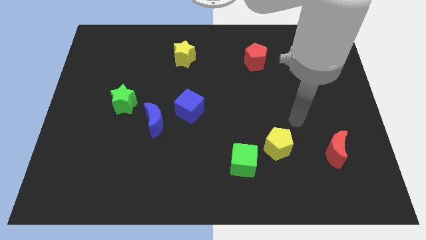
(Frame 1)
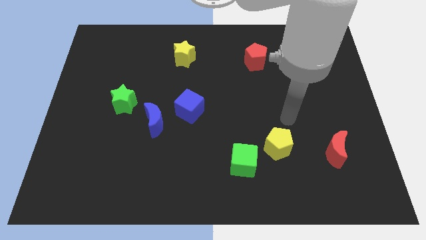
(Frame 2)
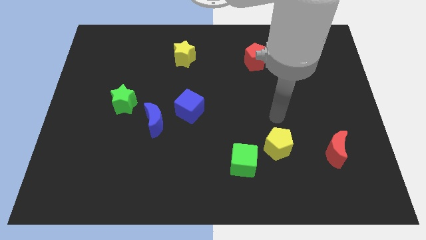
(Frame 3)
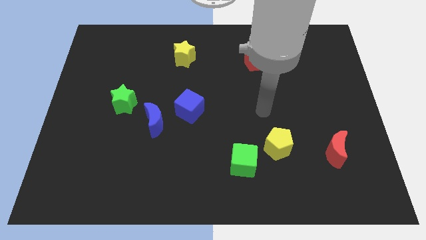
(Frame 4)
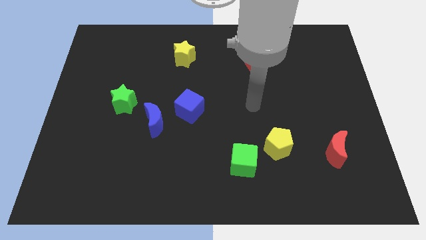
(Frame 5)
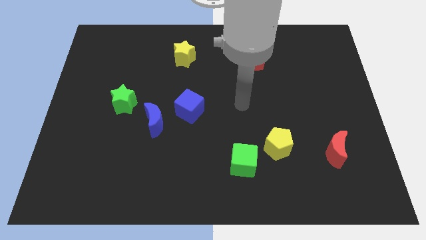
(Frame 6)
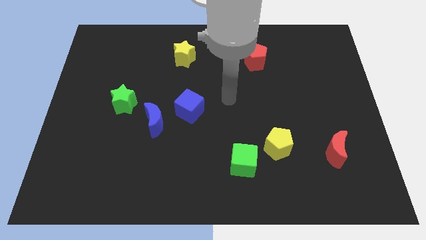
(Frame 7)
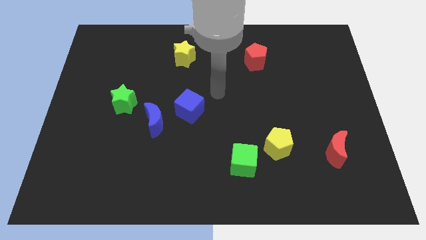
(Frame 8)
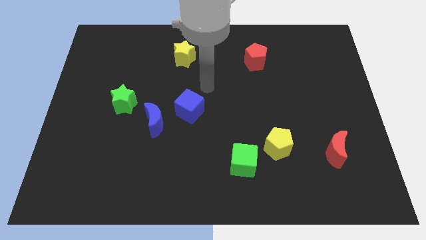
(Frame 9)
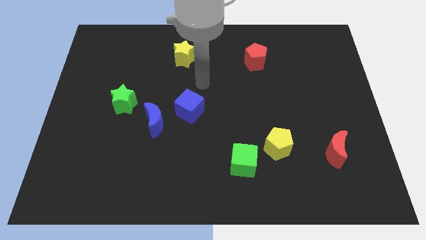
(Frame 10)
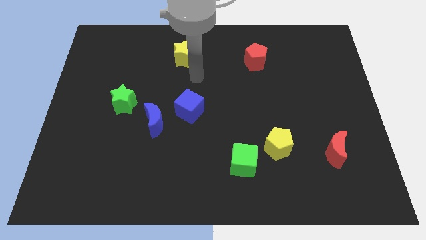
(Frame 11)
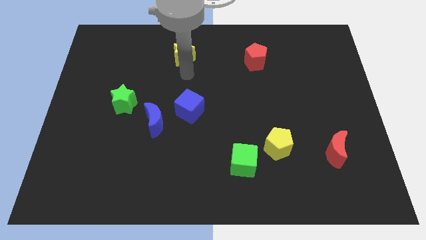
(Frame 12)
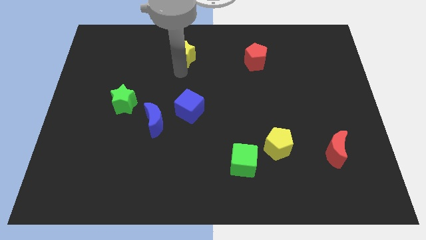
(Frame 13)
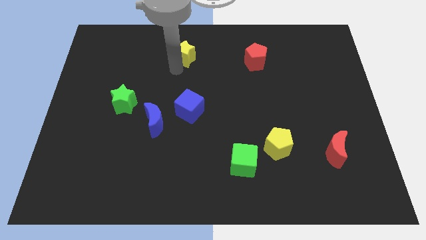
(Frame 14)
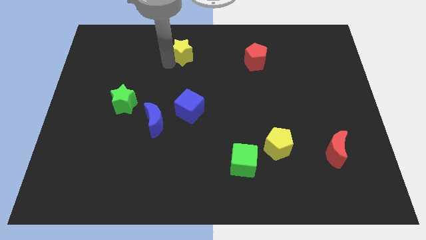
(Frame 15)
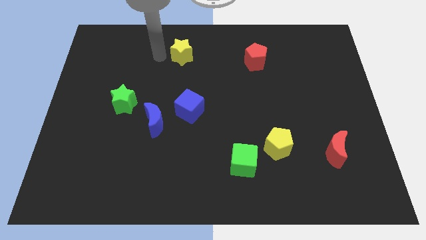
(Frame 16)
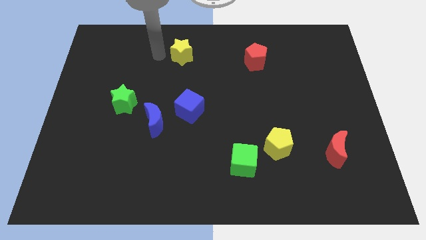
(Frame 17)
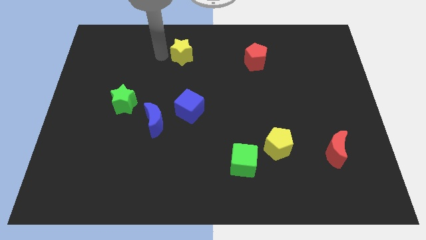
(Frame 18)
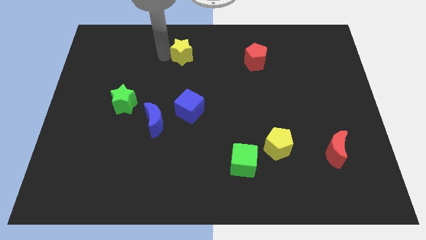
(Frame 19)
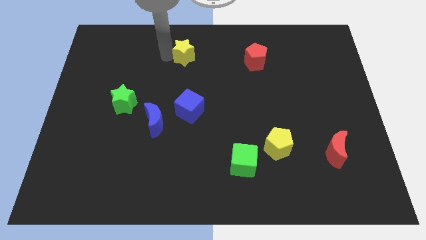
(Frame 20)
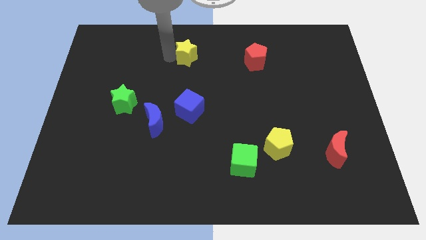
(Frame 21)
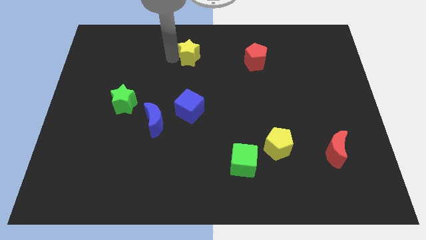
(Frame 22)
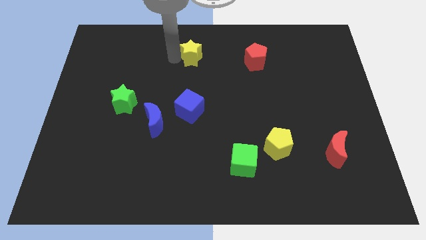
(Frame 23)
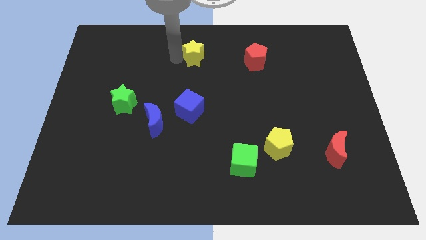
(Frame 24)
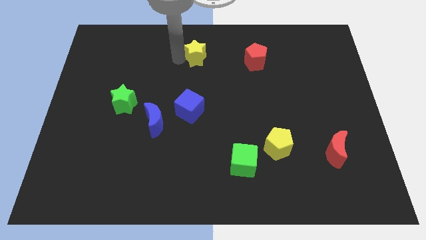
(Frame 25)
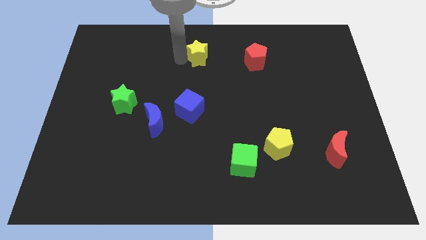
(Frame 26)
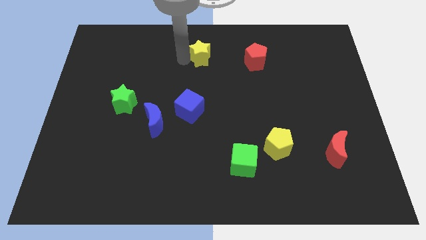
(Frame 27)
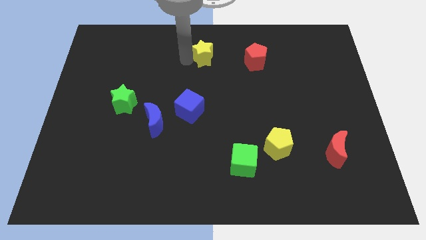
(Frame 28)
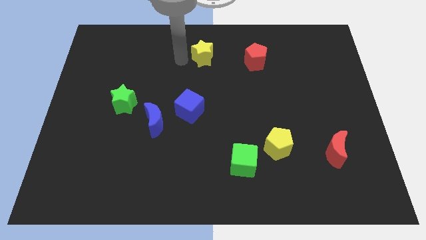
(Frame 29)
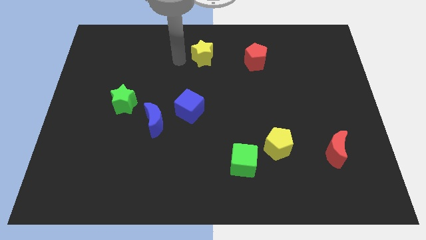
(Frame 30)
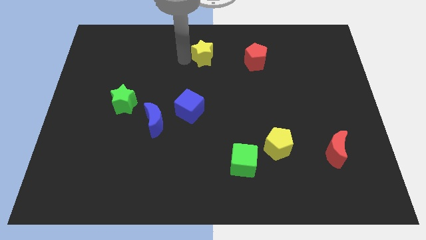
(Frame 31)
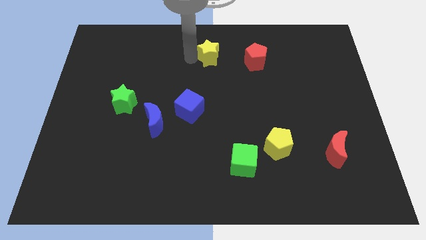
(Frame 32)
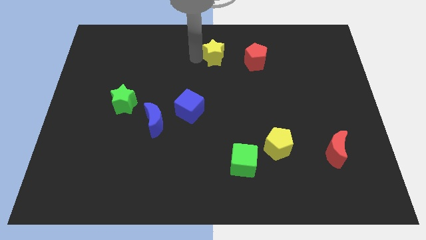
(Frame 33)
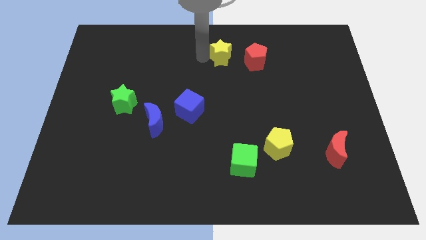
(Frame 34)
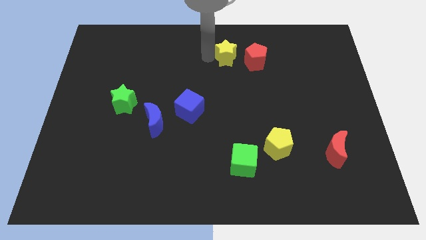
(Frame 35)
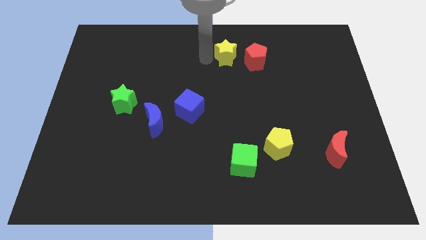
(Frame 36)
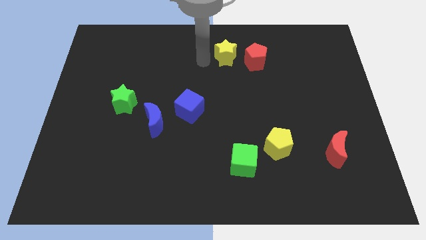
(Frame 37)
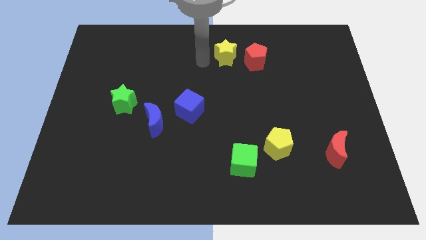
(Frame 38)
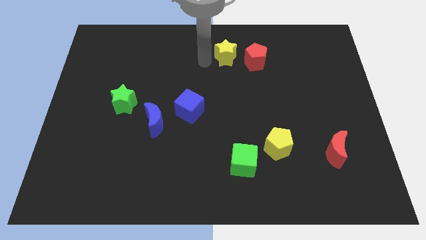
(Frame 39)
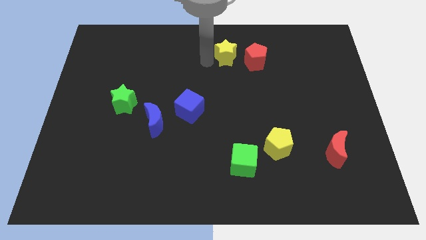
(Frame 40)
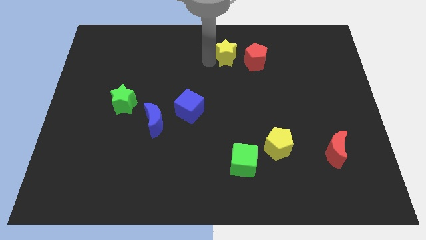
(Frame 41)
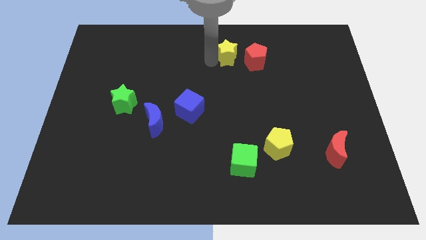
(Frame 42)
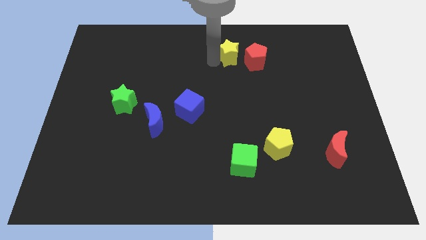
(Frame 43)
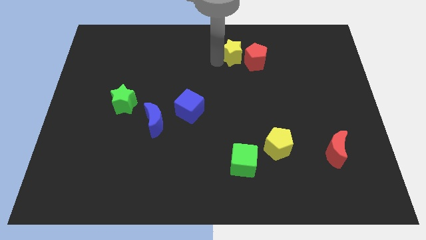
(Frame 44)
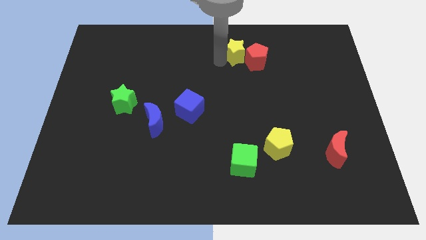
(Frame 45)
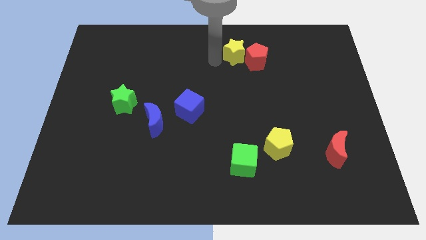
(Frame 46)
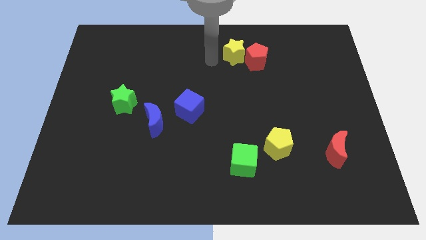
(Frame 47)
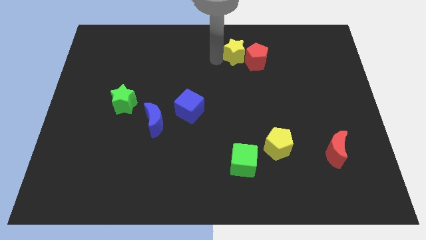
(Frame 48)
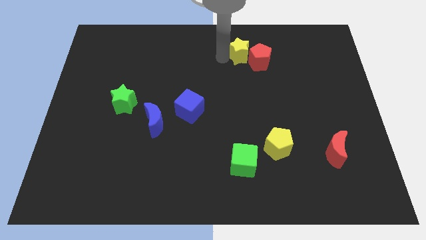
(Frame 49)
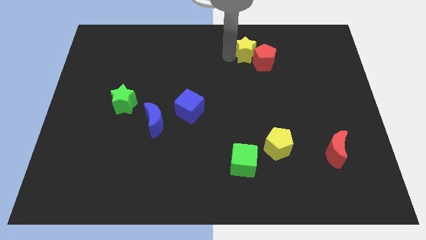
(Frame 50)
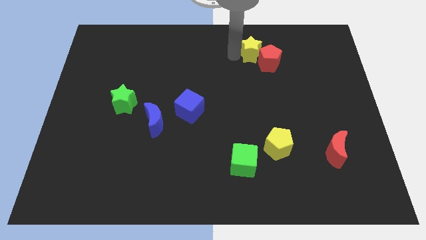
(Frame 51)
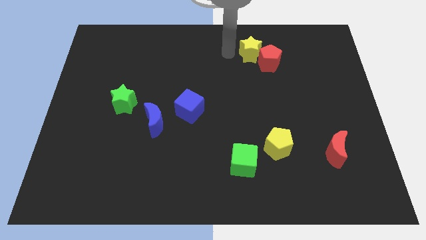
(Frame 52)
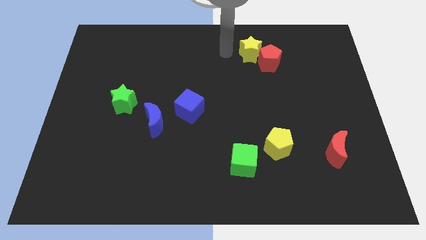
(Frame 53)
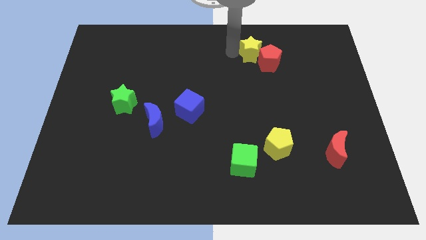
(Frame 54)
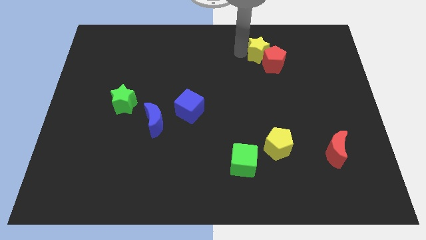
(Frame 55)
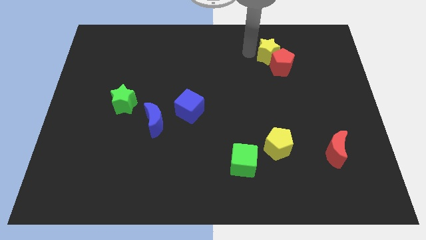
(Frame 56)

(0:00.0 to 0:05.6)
push the yellow star to the right

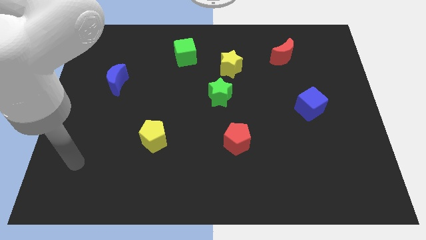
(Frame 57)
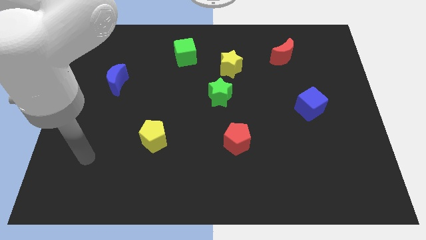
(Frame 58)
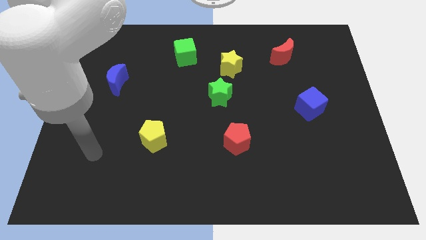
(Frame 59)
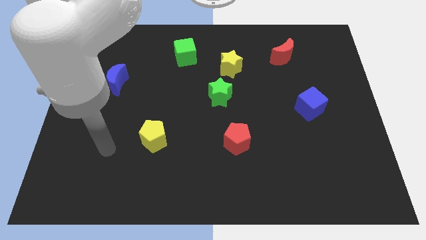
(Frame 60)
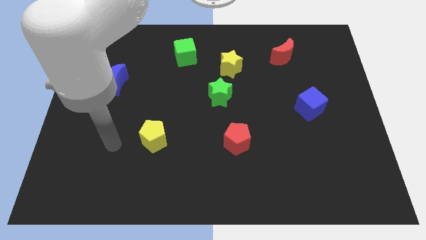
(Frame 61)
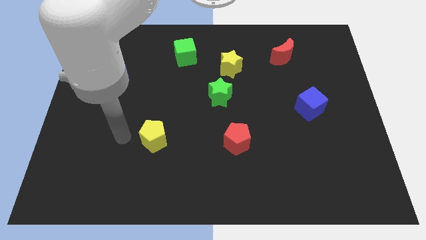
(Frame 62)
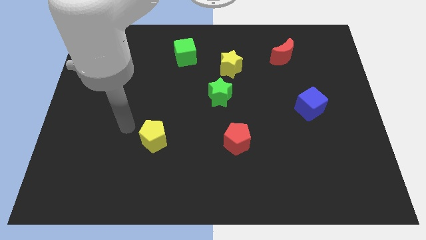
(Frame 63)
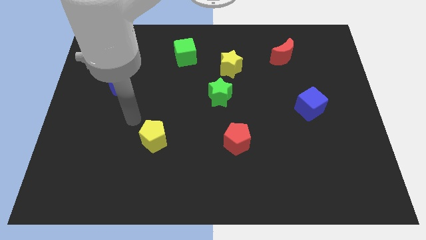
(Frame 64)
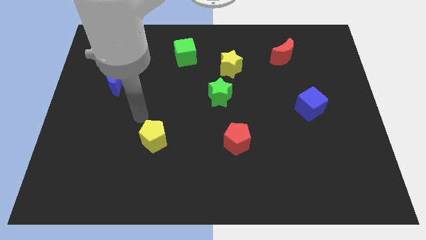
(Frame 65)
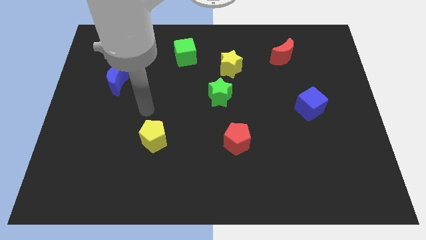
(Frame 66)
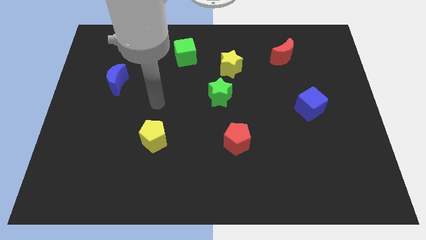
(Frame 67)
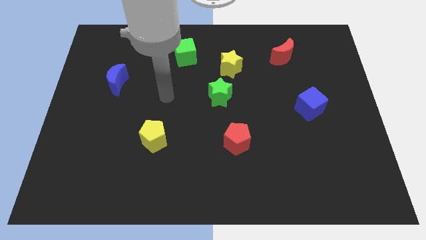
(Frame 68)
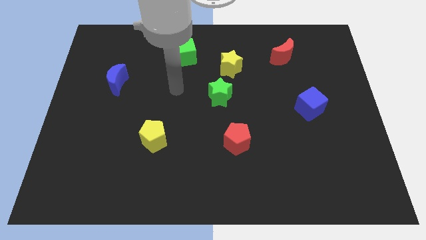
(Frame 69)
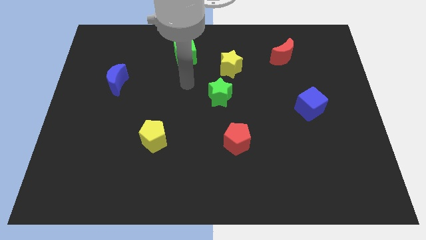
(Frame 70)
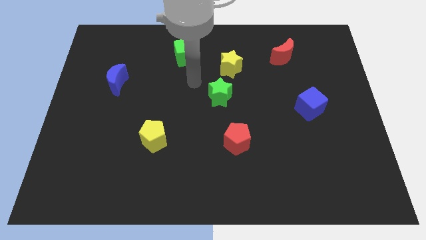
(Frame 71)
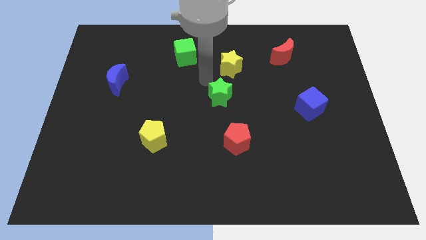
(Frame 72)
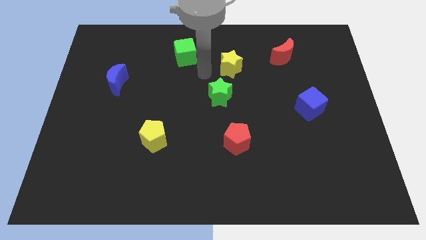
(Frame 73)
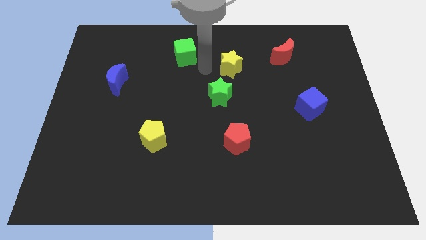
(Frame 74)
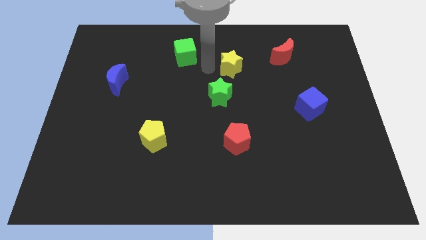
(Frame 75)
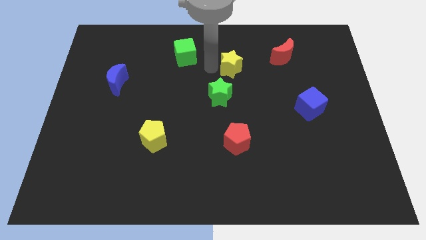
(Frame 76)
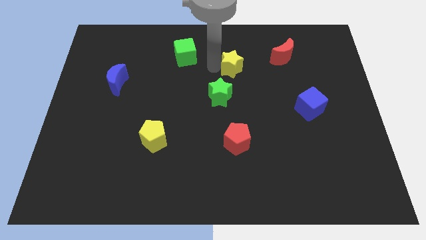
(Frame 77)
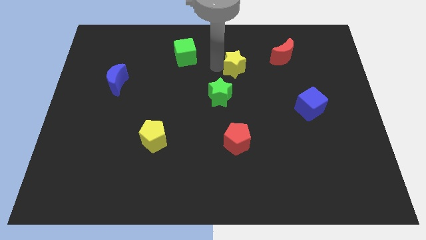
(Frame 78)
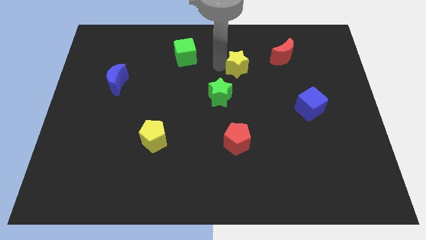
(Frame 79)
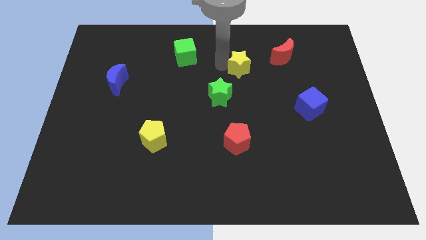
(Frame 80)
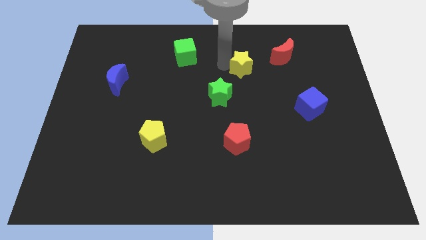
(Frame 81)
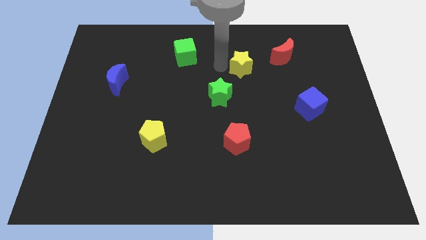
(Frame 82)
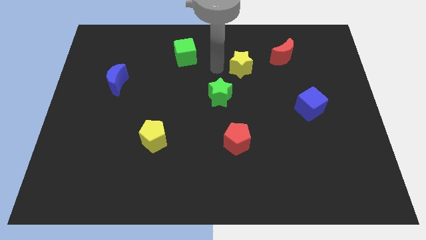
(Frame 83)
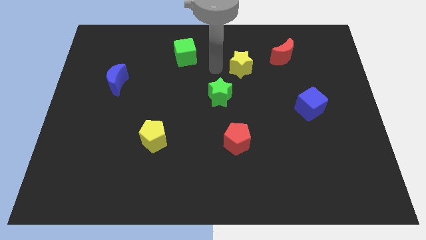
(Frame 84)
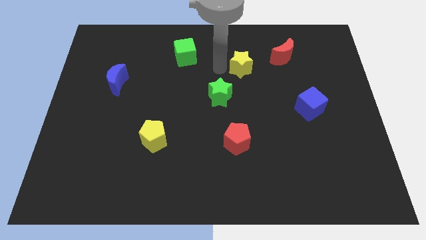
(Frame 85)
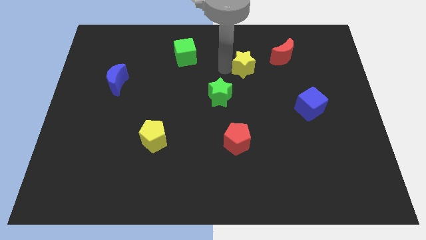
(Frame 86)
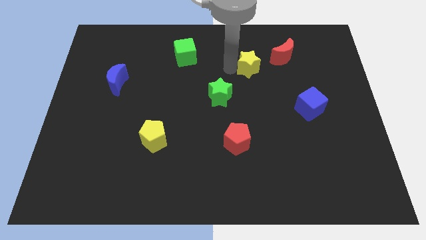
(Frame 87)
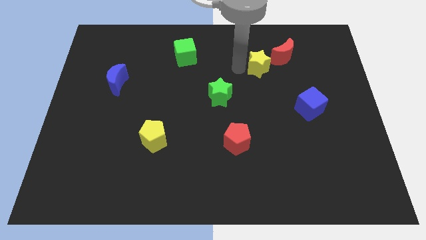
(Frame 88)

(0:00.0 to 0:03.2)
slightly slide the yellow star to the right
